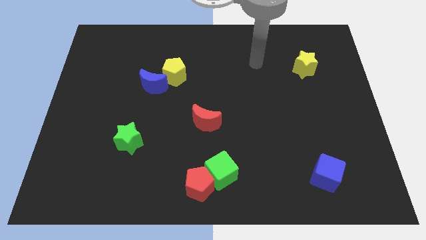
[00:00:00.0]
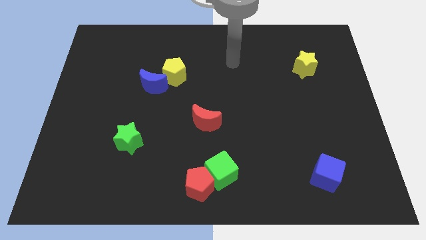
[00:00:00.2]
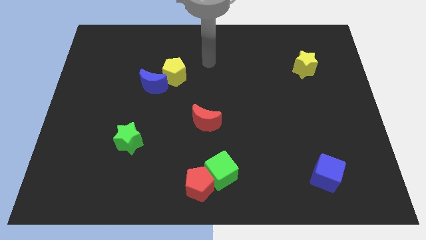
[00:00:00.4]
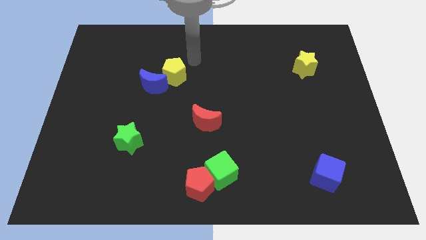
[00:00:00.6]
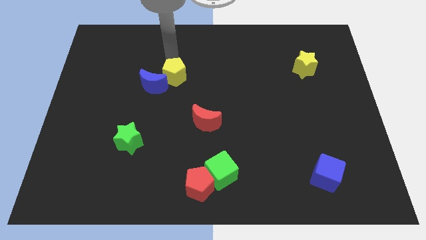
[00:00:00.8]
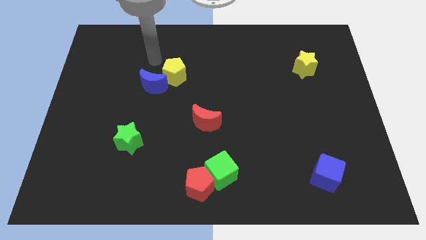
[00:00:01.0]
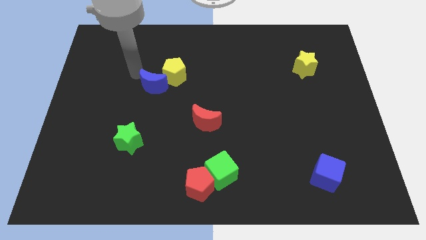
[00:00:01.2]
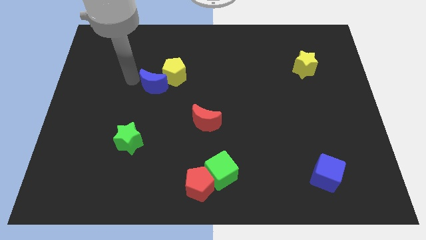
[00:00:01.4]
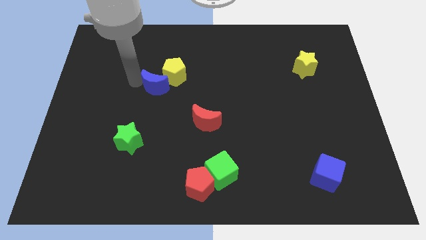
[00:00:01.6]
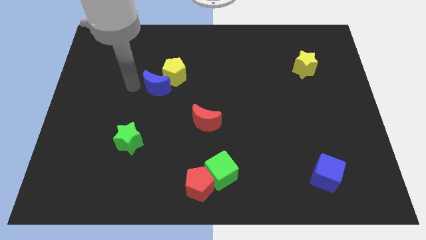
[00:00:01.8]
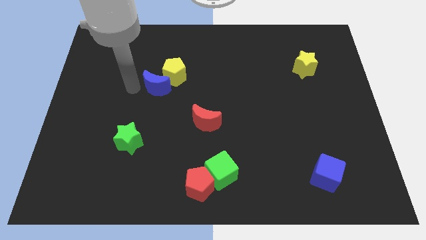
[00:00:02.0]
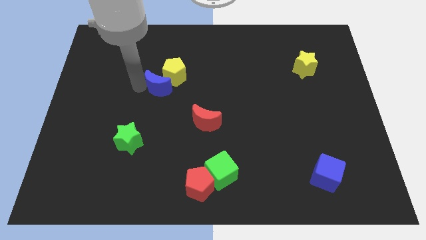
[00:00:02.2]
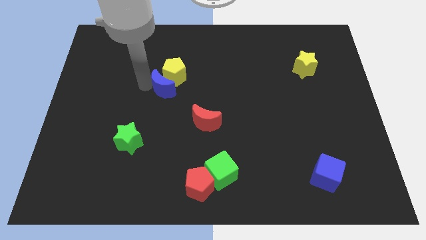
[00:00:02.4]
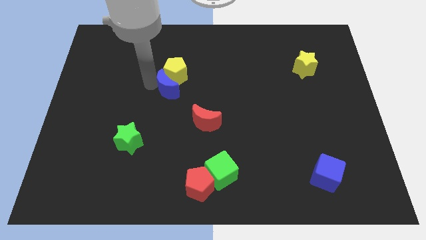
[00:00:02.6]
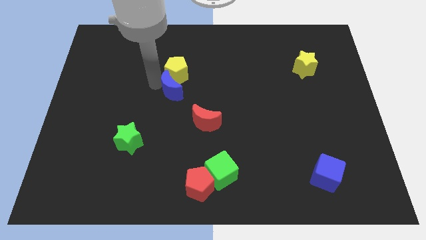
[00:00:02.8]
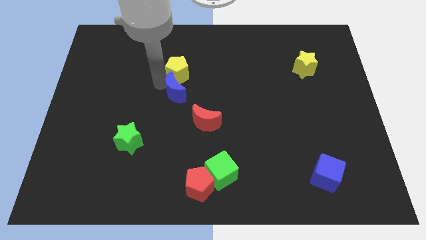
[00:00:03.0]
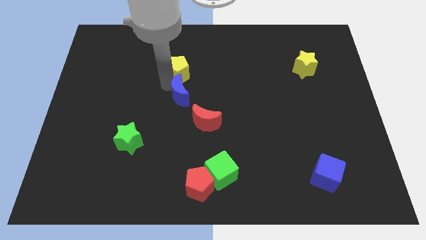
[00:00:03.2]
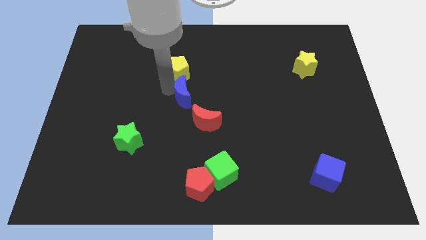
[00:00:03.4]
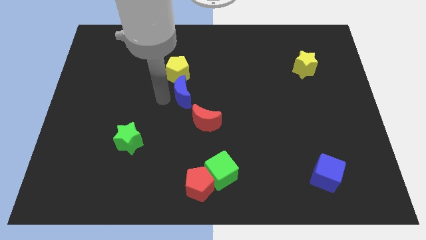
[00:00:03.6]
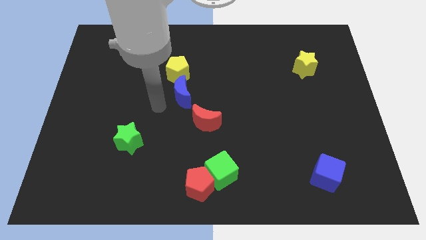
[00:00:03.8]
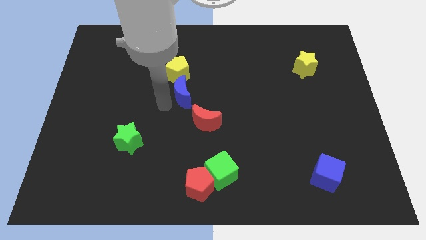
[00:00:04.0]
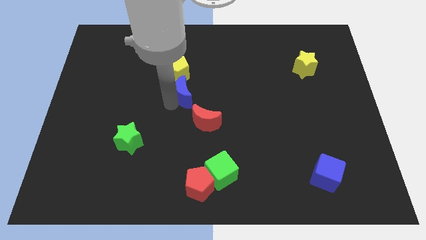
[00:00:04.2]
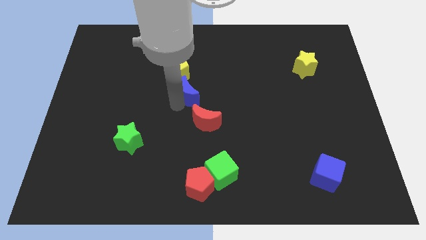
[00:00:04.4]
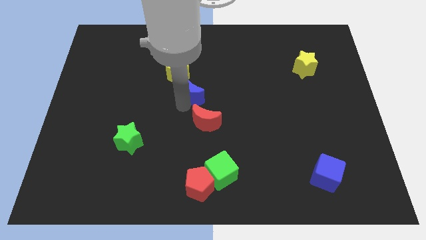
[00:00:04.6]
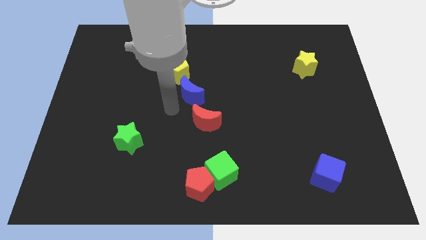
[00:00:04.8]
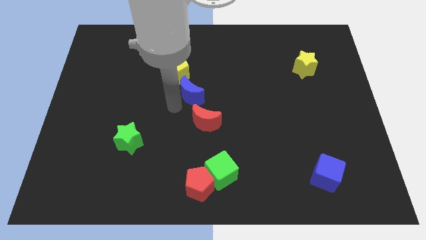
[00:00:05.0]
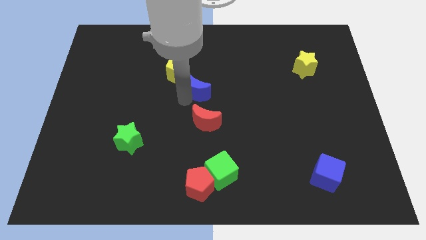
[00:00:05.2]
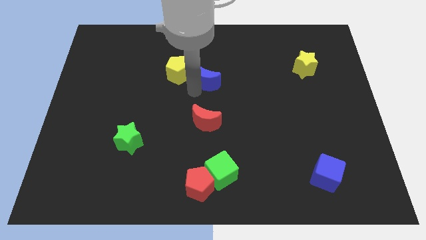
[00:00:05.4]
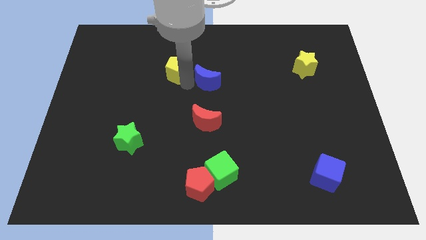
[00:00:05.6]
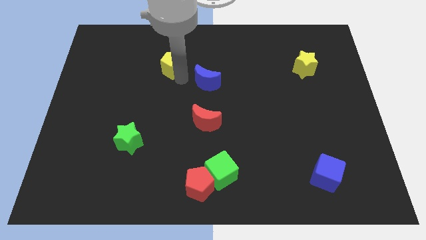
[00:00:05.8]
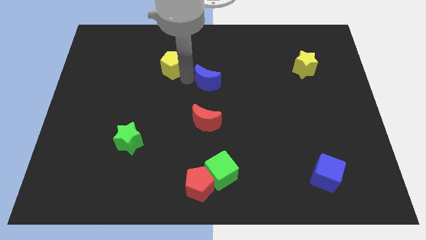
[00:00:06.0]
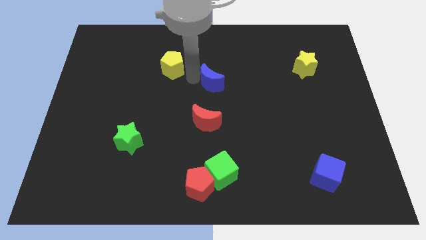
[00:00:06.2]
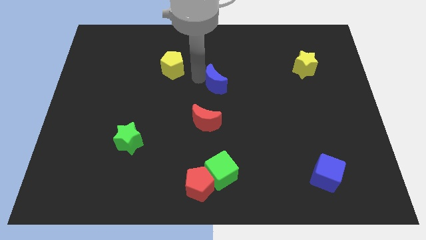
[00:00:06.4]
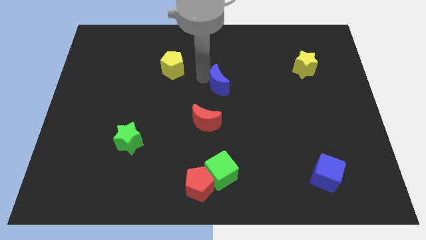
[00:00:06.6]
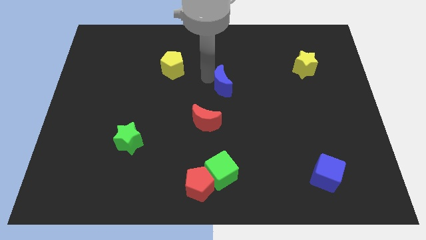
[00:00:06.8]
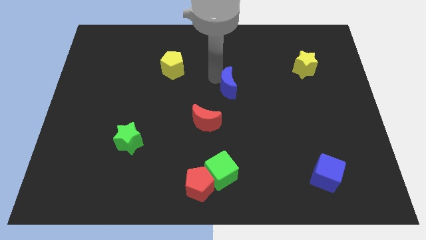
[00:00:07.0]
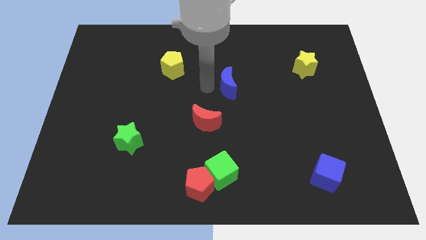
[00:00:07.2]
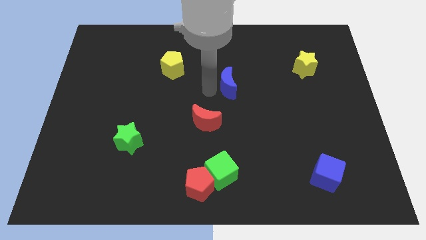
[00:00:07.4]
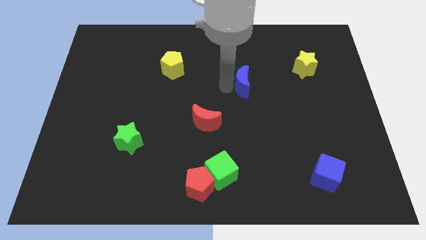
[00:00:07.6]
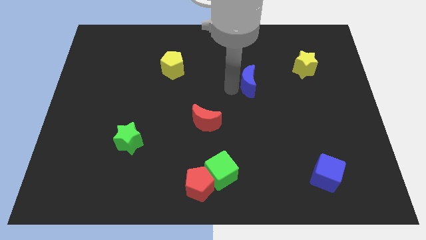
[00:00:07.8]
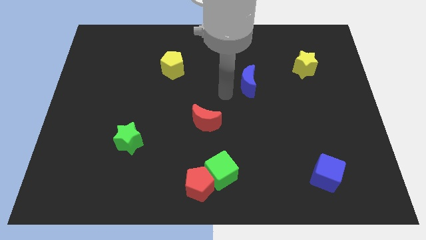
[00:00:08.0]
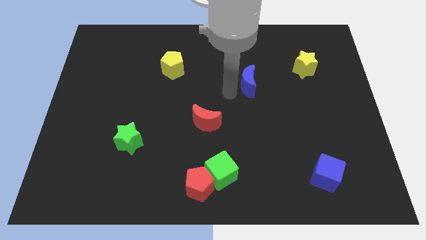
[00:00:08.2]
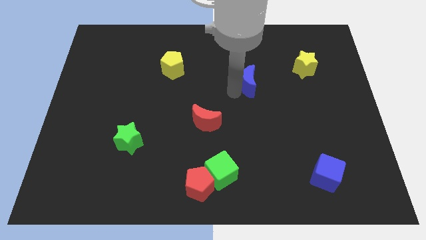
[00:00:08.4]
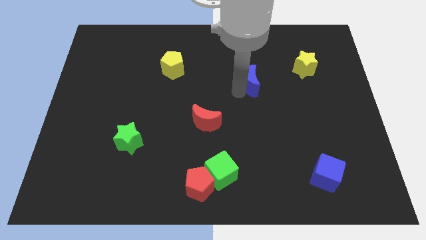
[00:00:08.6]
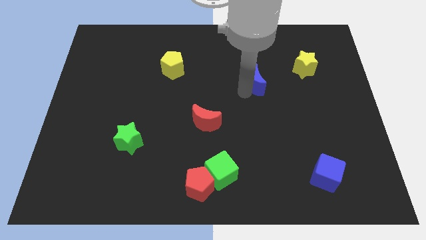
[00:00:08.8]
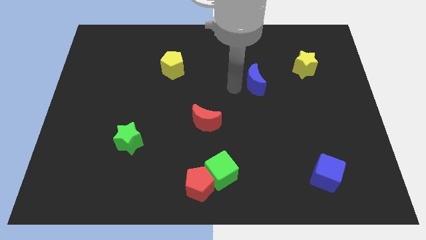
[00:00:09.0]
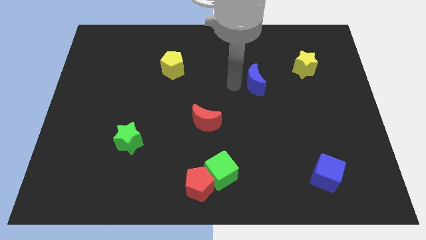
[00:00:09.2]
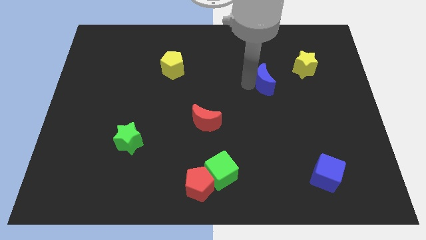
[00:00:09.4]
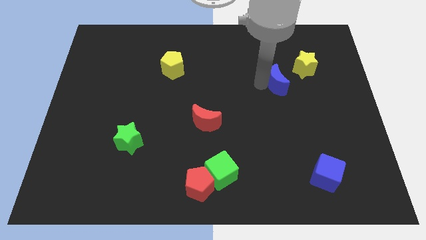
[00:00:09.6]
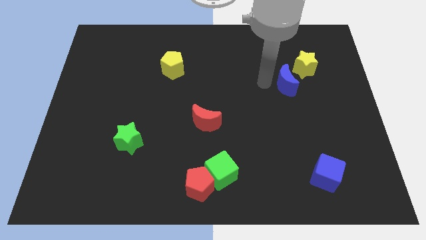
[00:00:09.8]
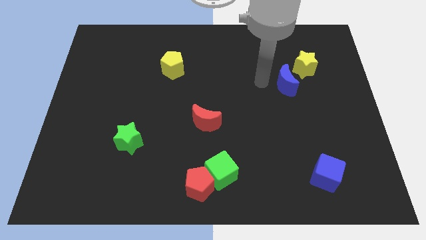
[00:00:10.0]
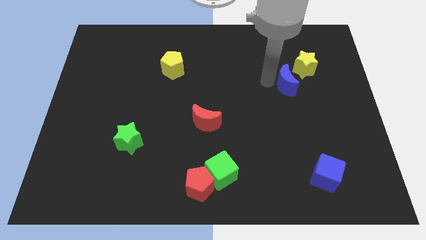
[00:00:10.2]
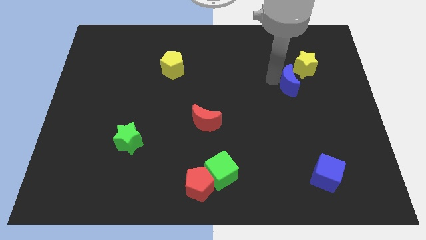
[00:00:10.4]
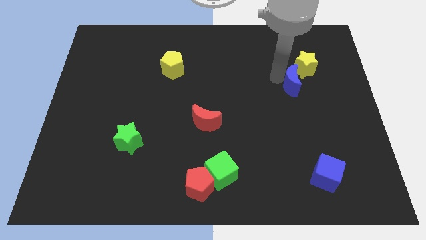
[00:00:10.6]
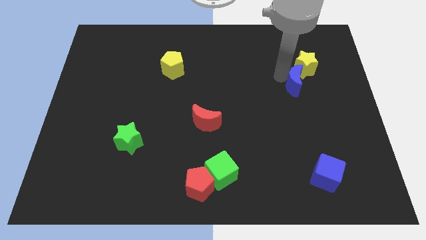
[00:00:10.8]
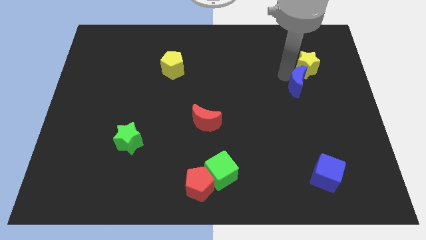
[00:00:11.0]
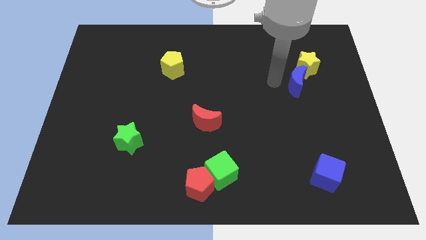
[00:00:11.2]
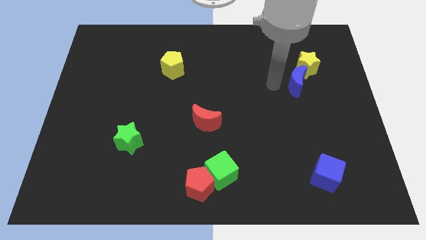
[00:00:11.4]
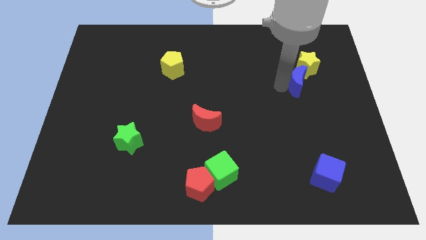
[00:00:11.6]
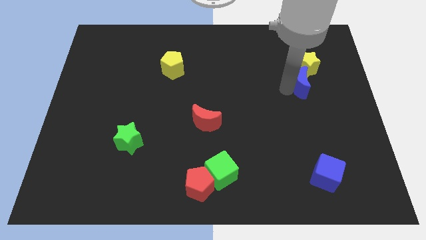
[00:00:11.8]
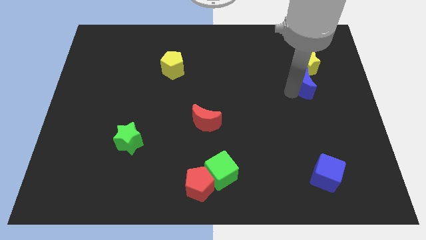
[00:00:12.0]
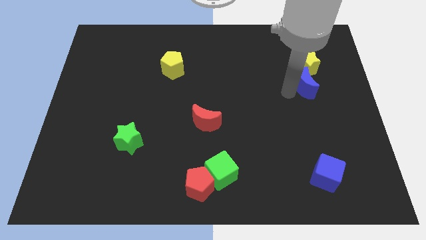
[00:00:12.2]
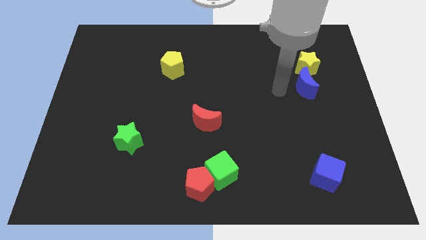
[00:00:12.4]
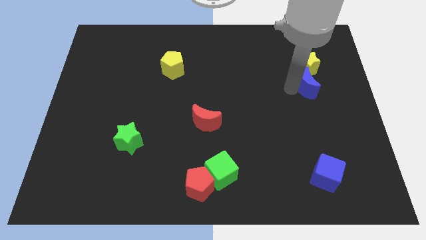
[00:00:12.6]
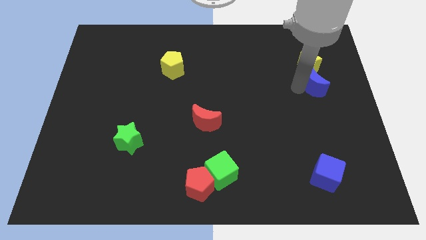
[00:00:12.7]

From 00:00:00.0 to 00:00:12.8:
slide the blue moon to the bottom right of the yellow star

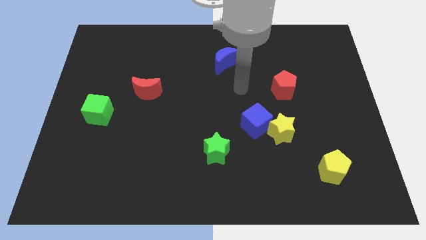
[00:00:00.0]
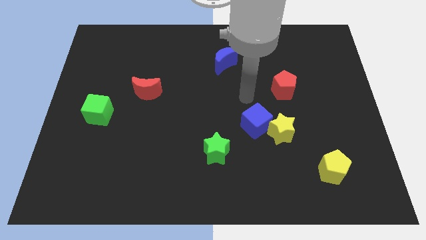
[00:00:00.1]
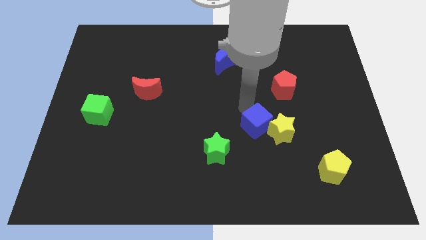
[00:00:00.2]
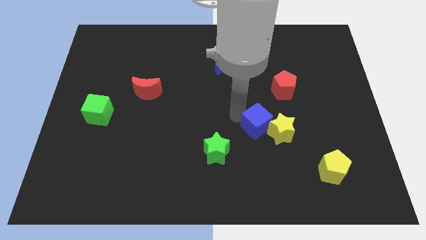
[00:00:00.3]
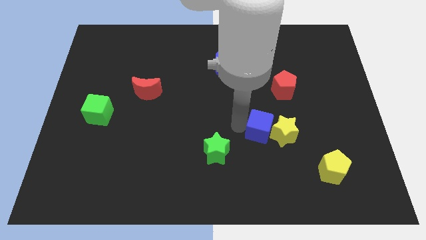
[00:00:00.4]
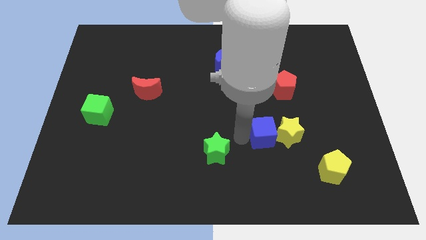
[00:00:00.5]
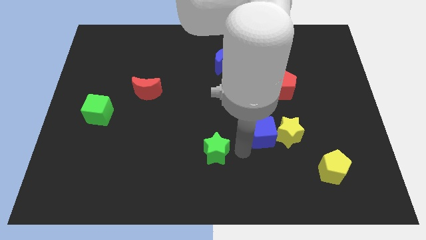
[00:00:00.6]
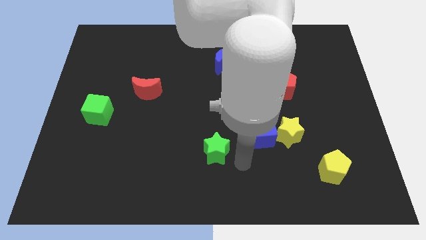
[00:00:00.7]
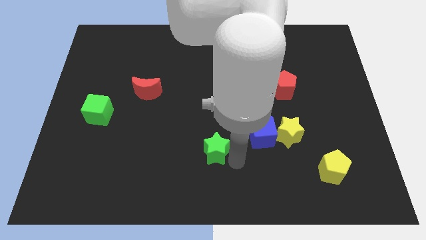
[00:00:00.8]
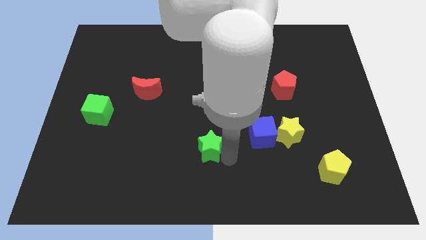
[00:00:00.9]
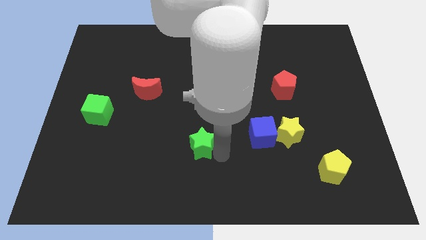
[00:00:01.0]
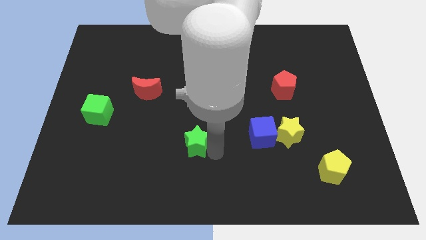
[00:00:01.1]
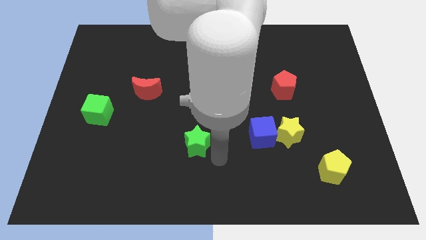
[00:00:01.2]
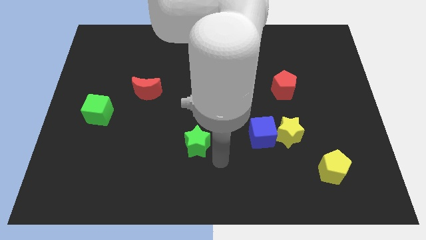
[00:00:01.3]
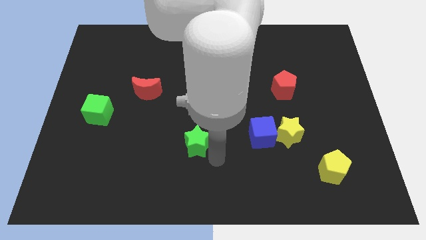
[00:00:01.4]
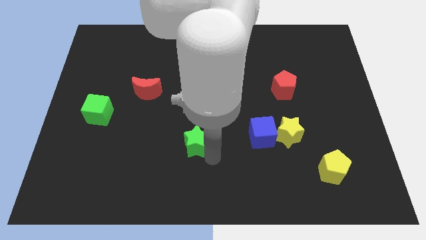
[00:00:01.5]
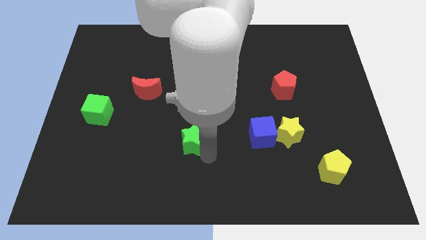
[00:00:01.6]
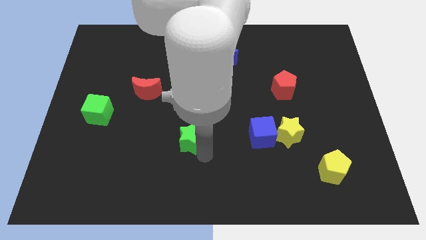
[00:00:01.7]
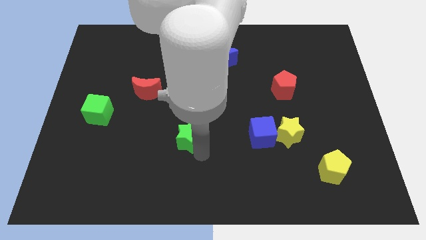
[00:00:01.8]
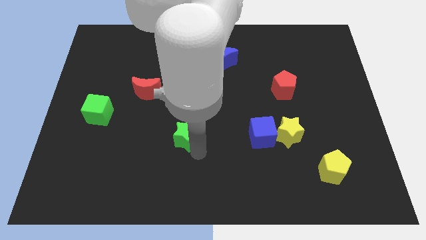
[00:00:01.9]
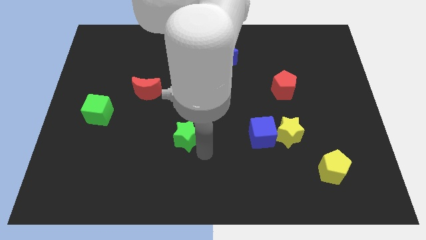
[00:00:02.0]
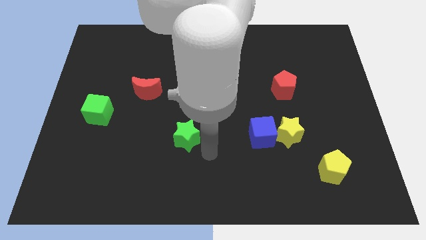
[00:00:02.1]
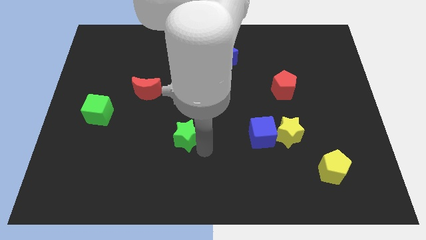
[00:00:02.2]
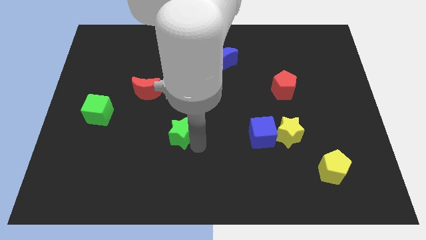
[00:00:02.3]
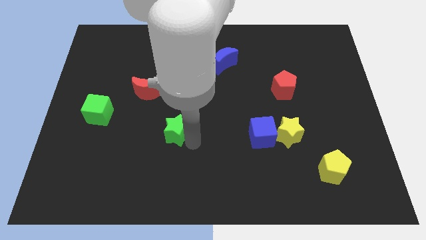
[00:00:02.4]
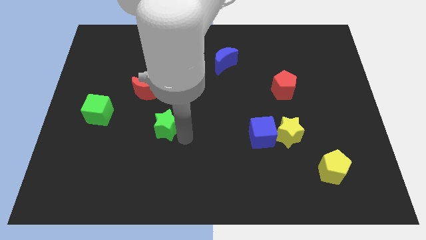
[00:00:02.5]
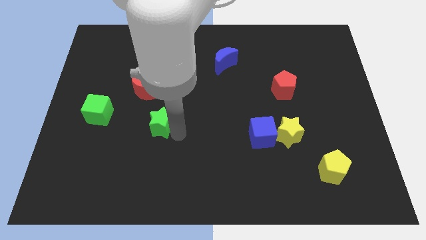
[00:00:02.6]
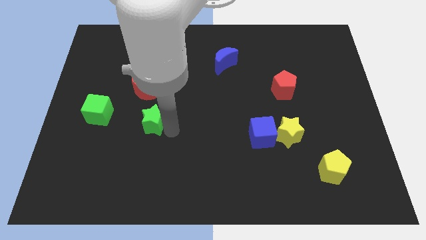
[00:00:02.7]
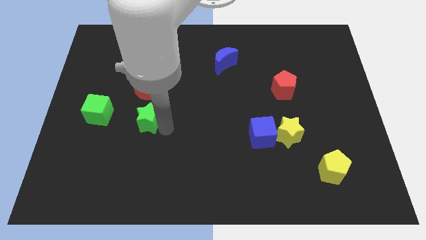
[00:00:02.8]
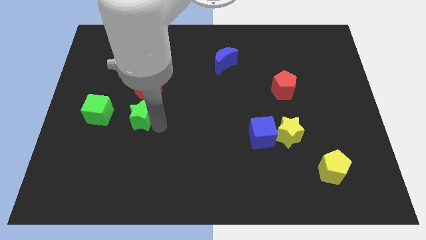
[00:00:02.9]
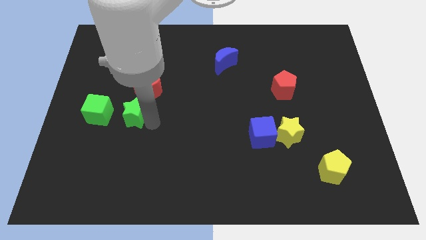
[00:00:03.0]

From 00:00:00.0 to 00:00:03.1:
slide the green star to the bottom left of the red moon
